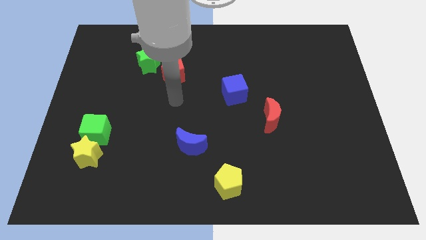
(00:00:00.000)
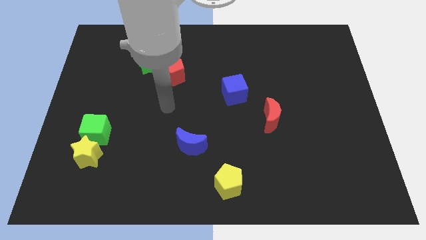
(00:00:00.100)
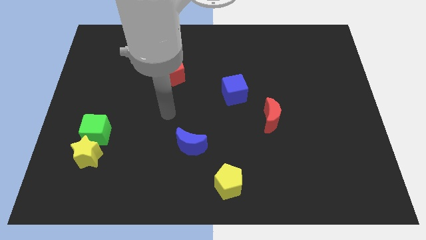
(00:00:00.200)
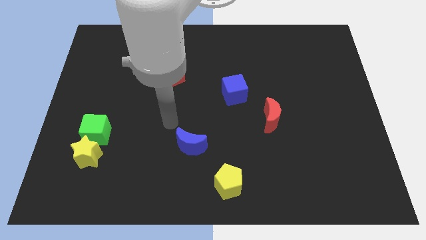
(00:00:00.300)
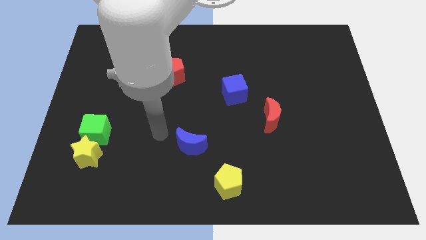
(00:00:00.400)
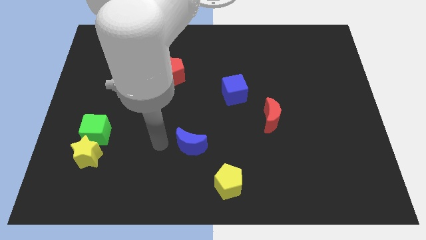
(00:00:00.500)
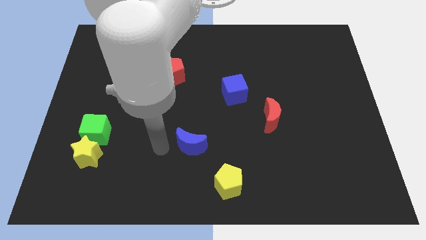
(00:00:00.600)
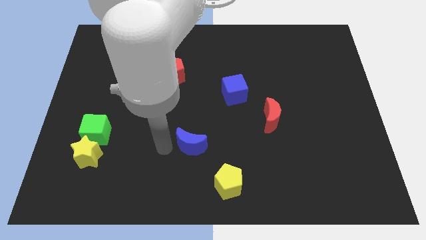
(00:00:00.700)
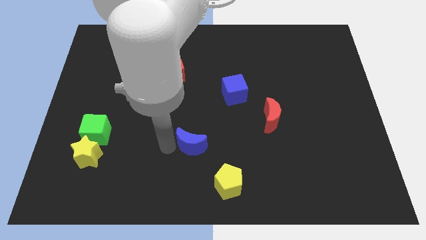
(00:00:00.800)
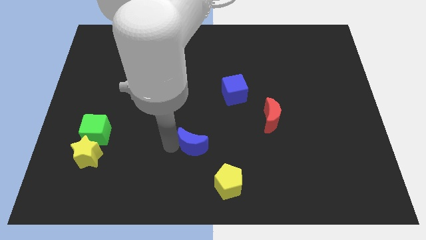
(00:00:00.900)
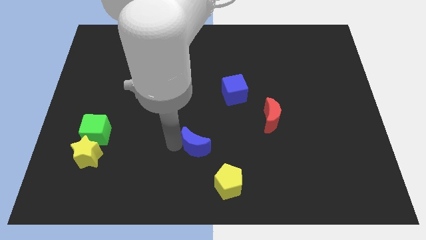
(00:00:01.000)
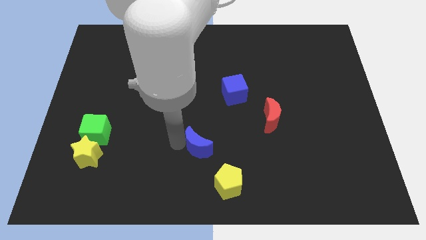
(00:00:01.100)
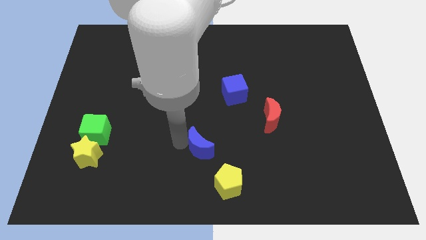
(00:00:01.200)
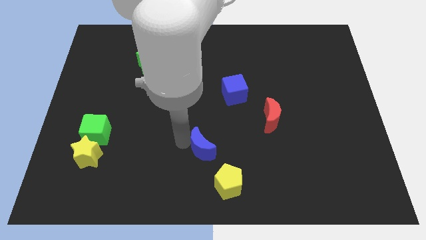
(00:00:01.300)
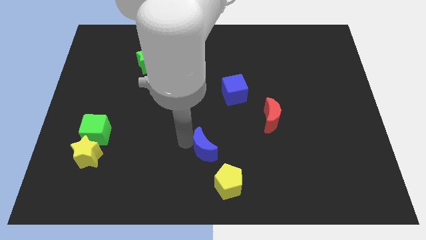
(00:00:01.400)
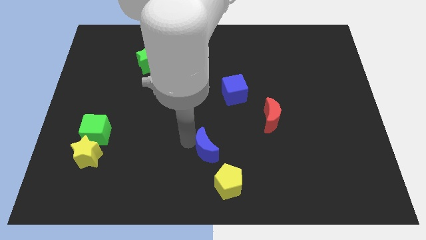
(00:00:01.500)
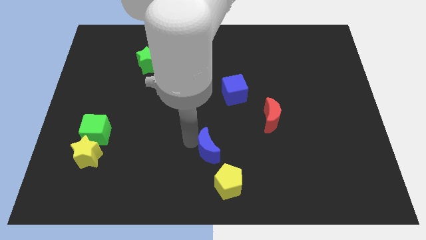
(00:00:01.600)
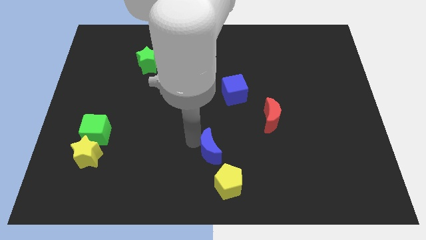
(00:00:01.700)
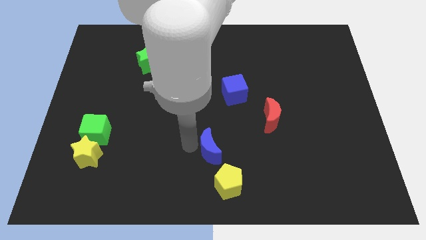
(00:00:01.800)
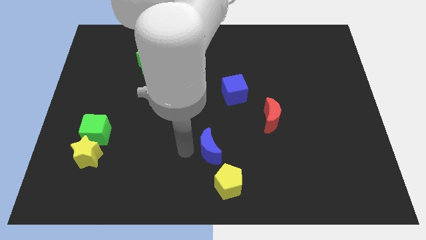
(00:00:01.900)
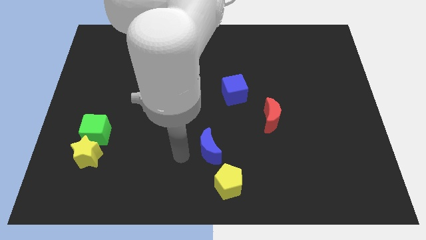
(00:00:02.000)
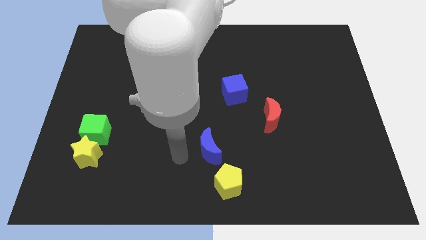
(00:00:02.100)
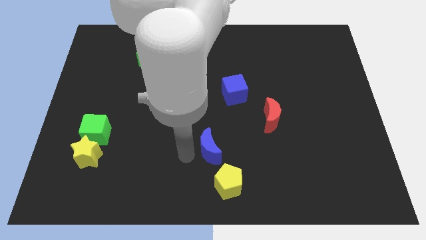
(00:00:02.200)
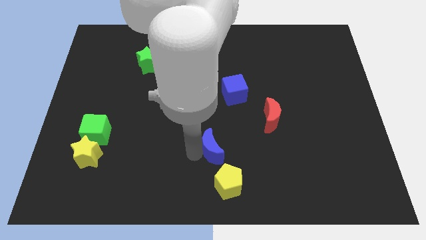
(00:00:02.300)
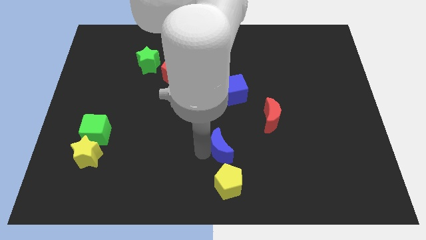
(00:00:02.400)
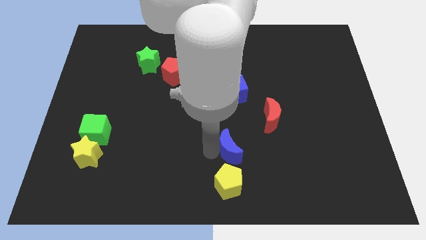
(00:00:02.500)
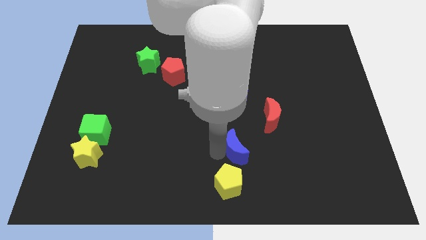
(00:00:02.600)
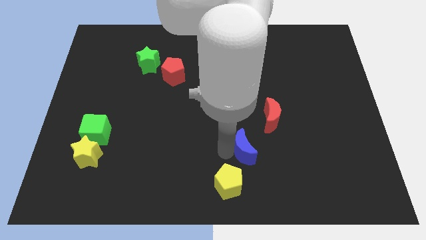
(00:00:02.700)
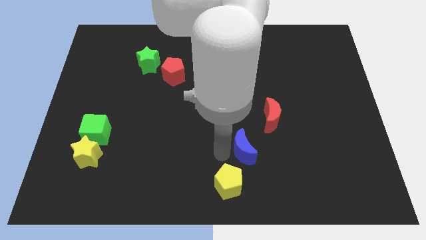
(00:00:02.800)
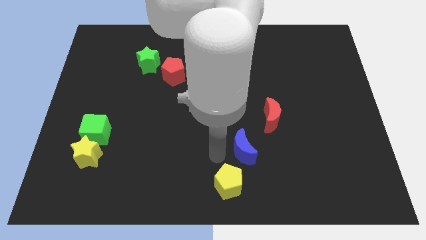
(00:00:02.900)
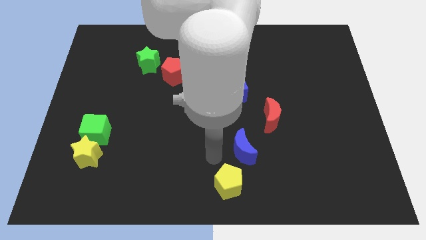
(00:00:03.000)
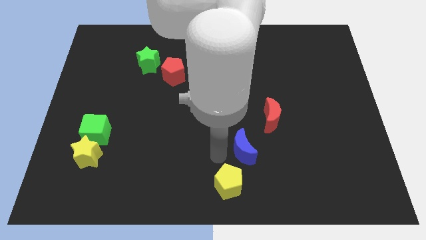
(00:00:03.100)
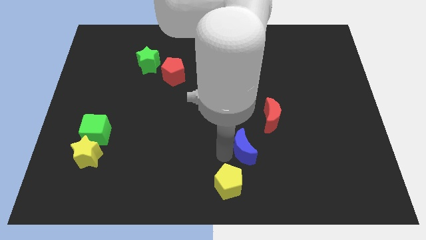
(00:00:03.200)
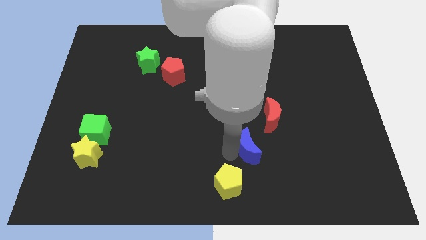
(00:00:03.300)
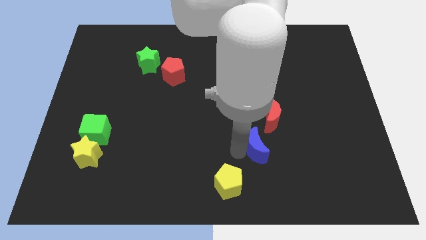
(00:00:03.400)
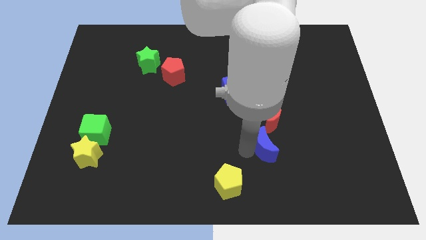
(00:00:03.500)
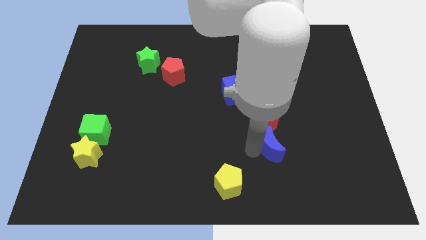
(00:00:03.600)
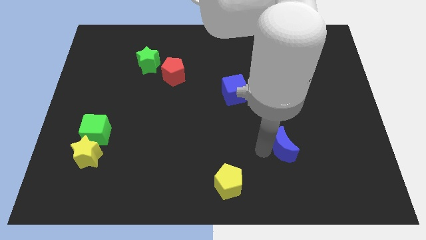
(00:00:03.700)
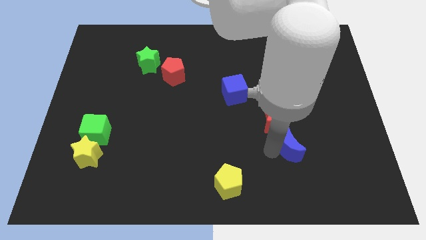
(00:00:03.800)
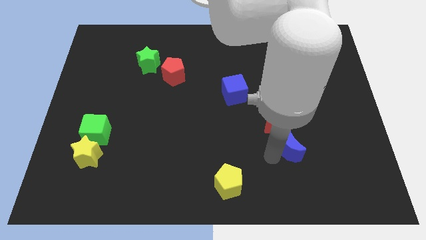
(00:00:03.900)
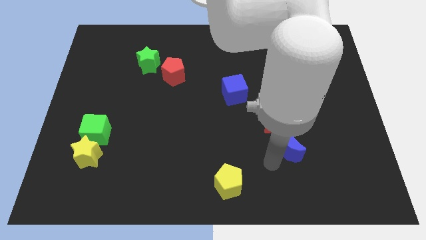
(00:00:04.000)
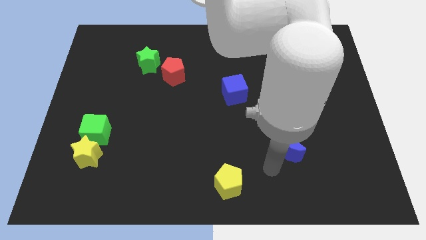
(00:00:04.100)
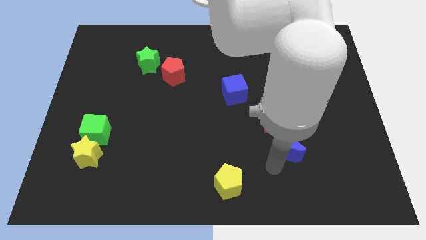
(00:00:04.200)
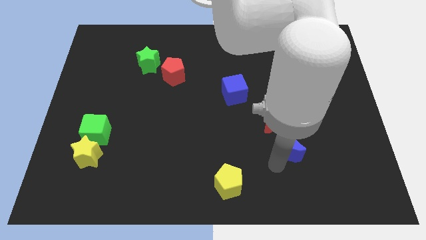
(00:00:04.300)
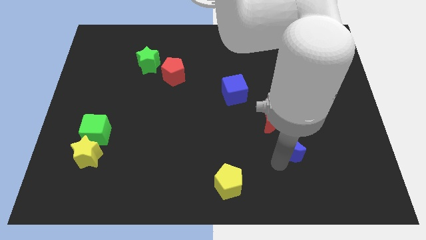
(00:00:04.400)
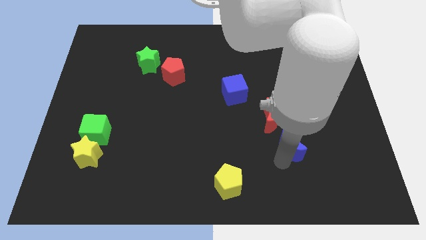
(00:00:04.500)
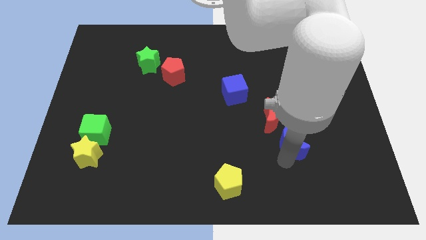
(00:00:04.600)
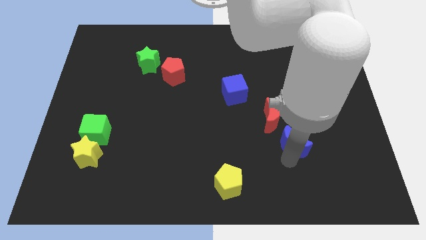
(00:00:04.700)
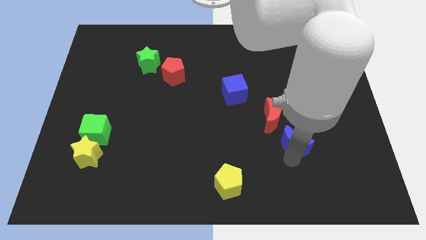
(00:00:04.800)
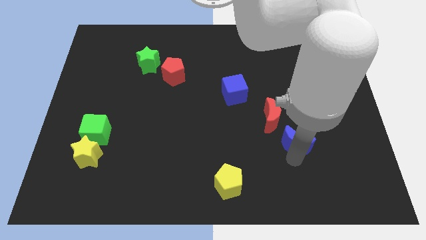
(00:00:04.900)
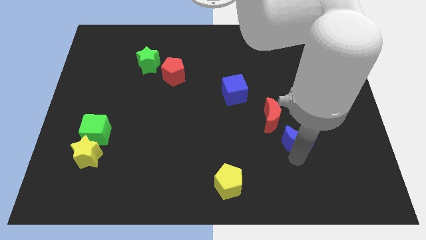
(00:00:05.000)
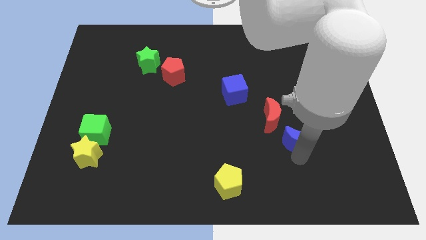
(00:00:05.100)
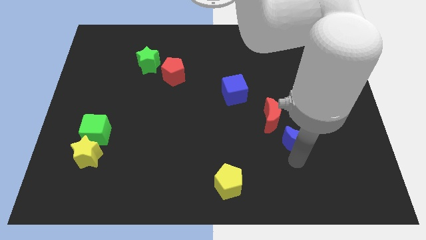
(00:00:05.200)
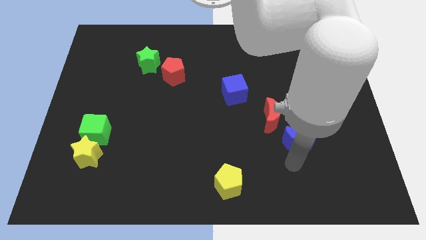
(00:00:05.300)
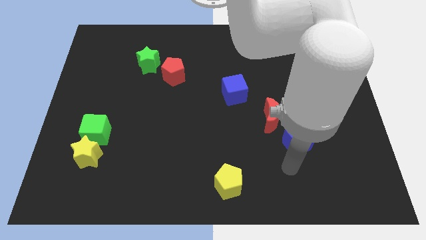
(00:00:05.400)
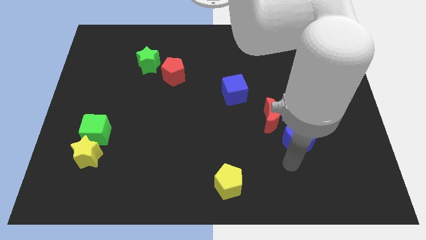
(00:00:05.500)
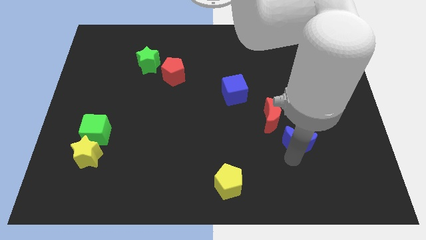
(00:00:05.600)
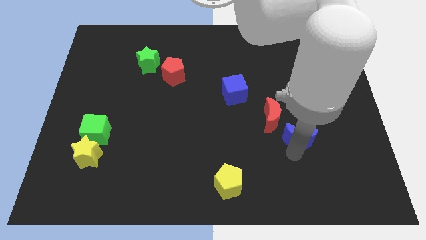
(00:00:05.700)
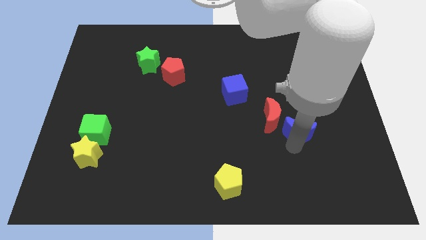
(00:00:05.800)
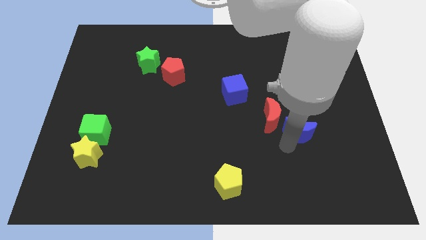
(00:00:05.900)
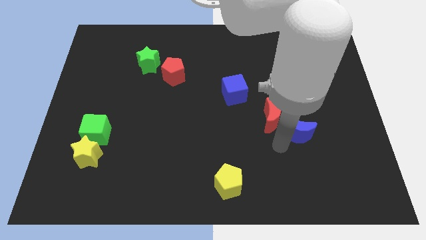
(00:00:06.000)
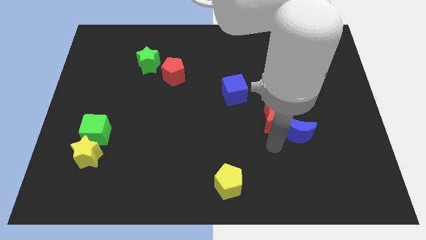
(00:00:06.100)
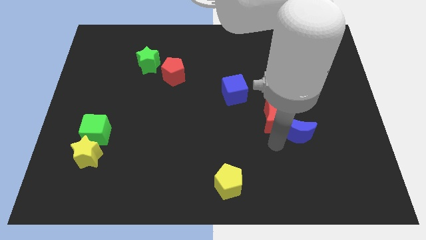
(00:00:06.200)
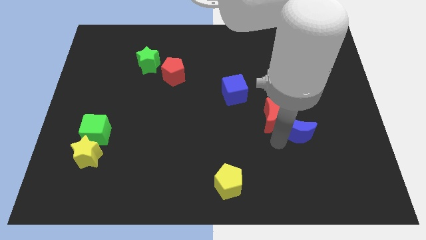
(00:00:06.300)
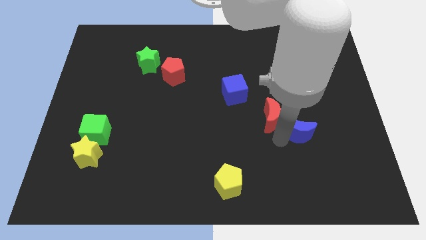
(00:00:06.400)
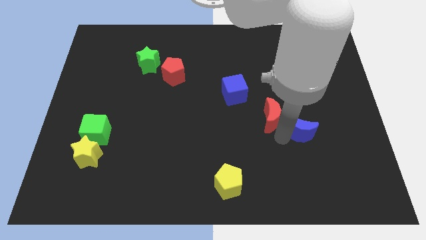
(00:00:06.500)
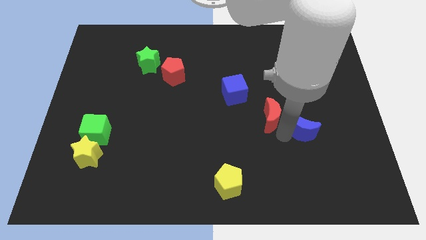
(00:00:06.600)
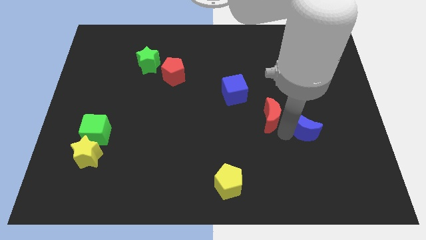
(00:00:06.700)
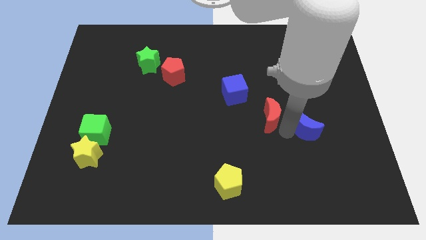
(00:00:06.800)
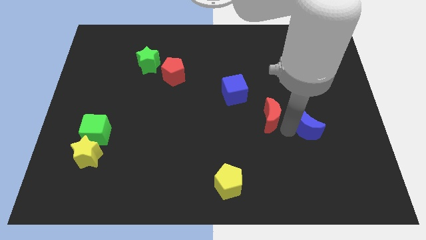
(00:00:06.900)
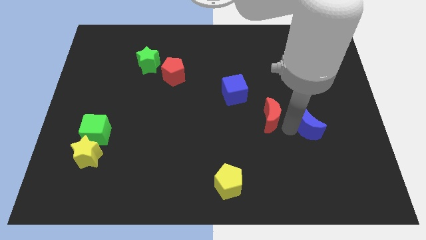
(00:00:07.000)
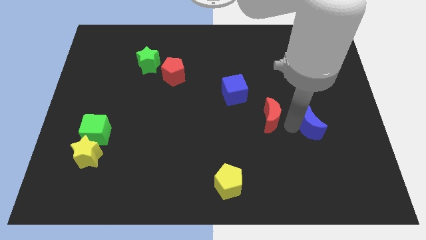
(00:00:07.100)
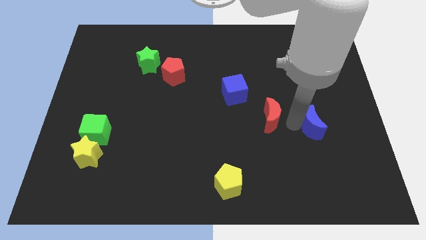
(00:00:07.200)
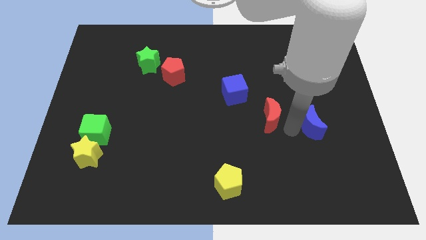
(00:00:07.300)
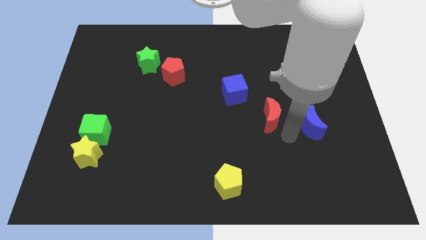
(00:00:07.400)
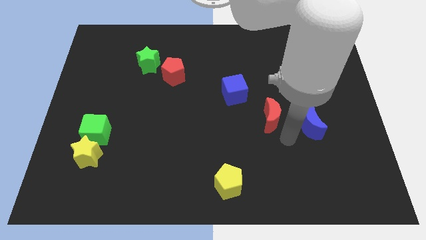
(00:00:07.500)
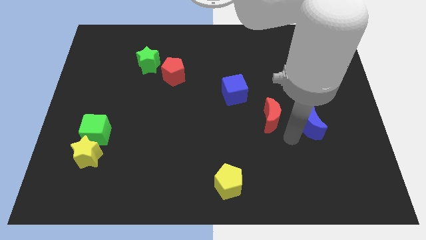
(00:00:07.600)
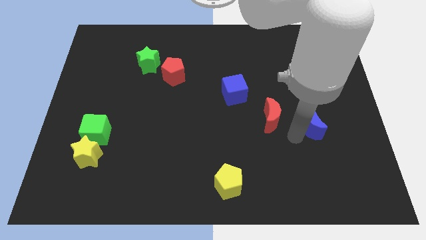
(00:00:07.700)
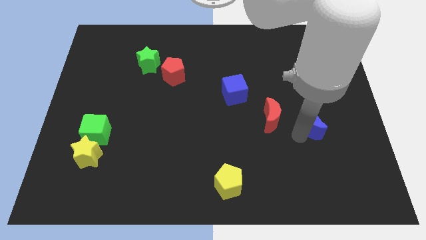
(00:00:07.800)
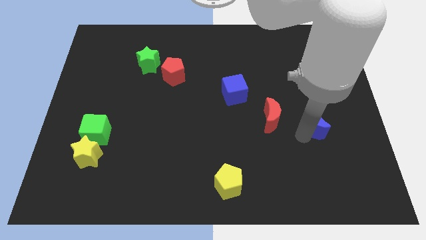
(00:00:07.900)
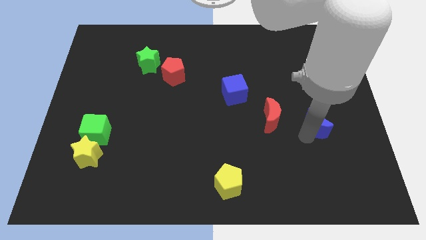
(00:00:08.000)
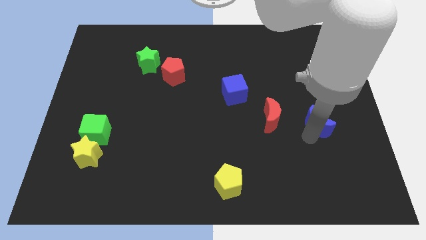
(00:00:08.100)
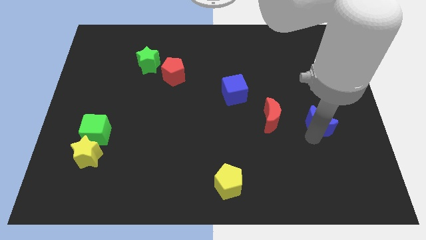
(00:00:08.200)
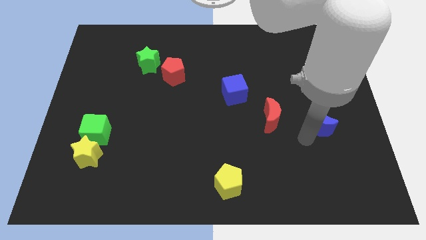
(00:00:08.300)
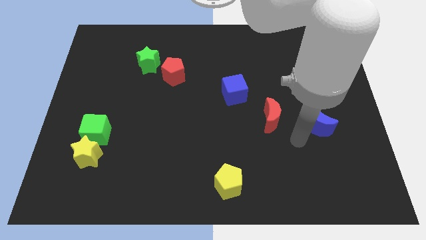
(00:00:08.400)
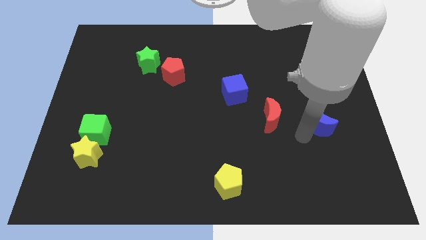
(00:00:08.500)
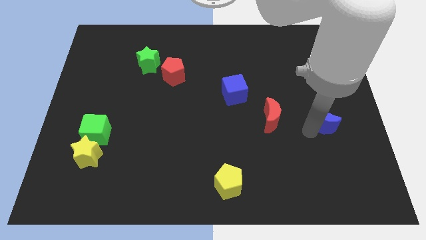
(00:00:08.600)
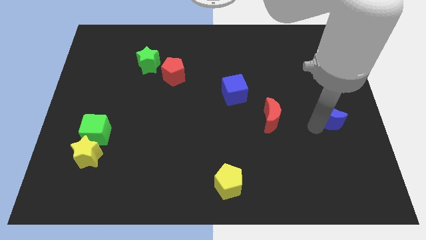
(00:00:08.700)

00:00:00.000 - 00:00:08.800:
push the blue moon to the right side of the board
